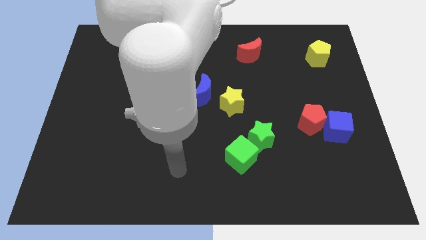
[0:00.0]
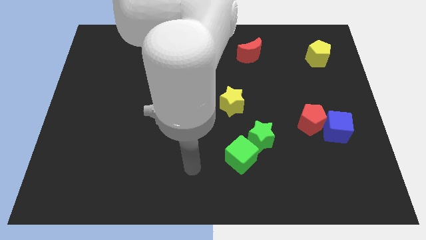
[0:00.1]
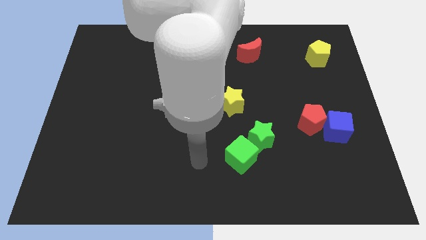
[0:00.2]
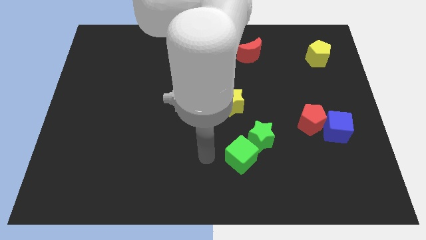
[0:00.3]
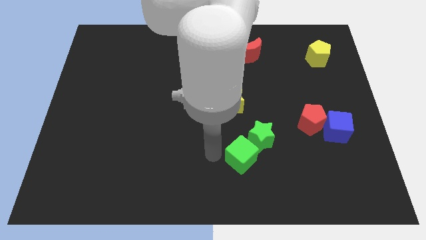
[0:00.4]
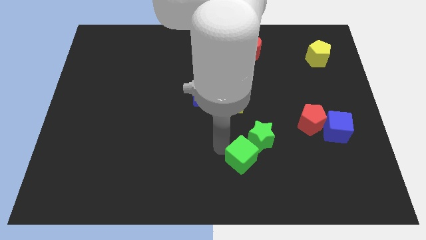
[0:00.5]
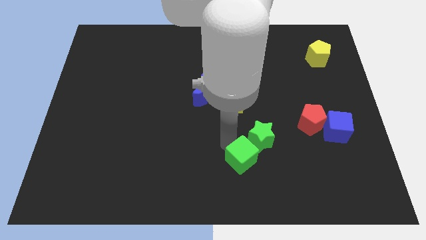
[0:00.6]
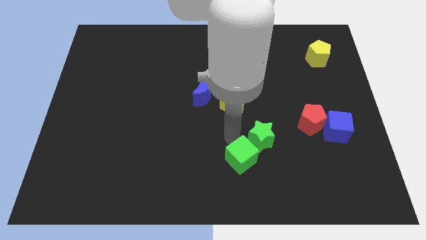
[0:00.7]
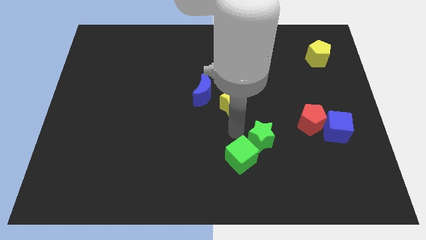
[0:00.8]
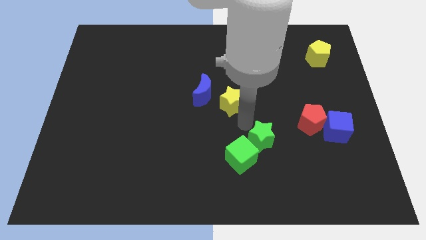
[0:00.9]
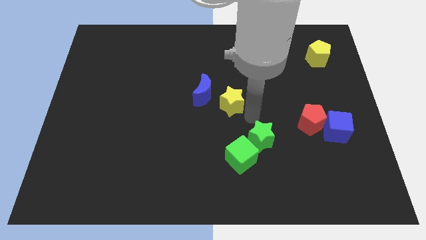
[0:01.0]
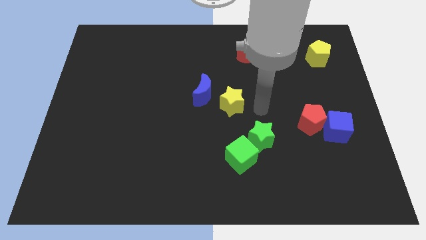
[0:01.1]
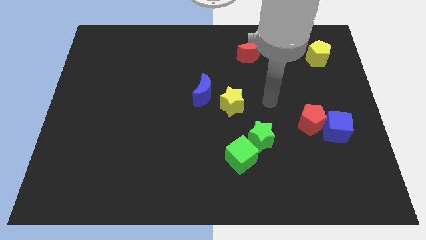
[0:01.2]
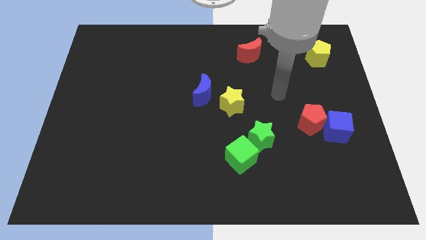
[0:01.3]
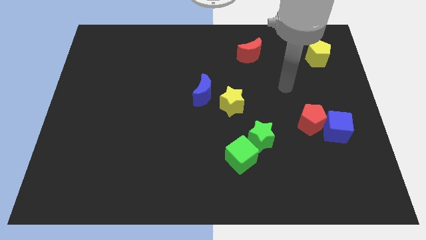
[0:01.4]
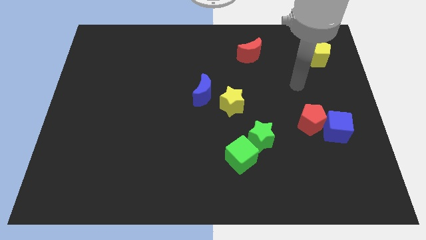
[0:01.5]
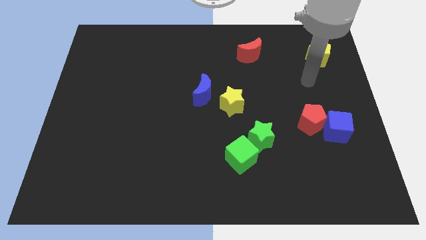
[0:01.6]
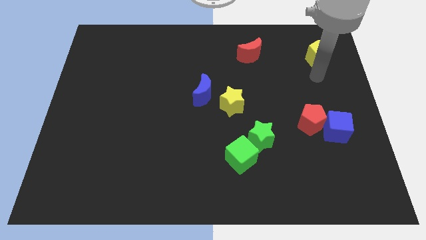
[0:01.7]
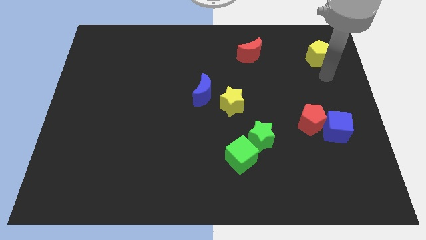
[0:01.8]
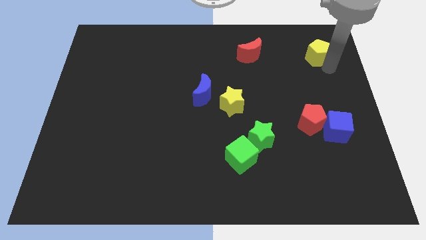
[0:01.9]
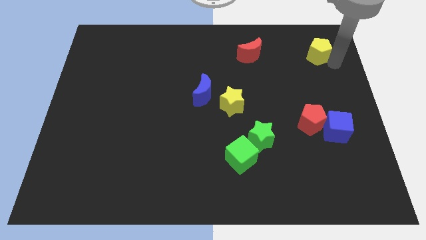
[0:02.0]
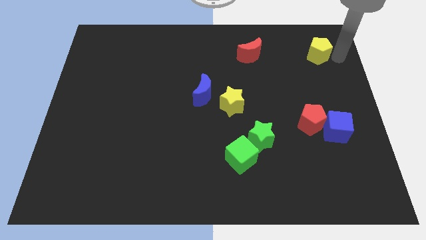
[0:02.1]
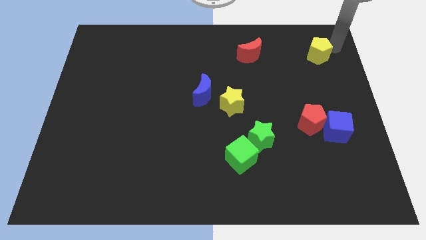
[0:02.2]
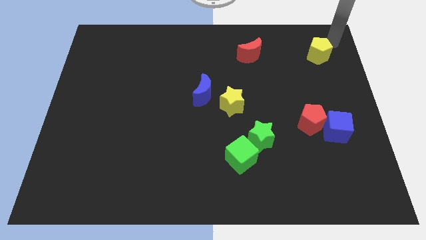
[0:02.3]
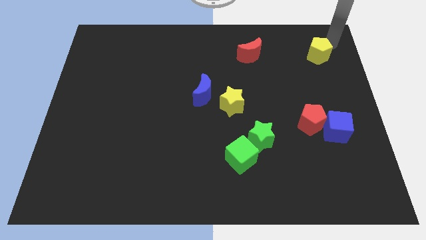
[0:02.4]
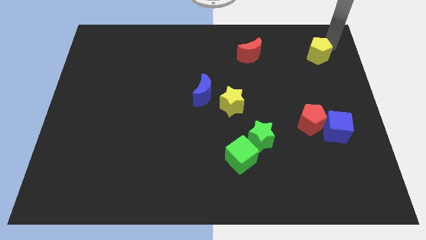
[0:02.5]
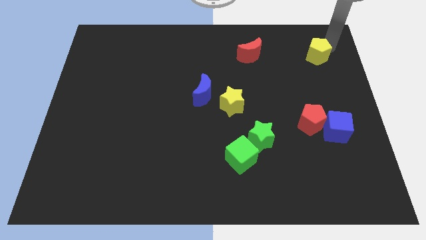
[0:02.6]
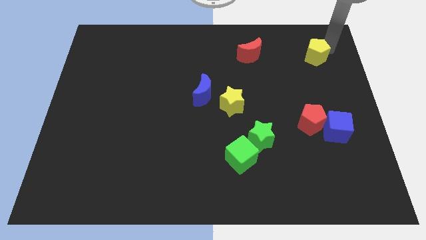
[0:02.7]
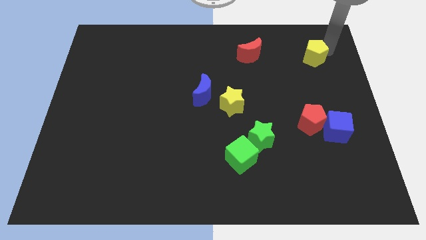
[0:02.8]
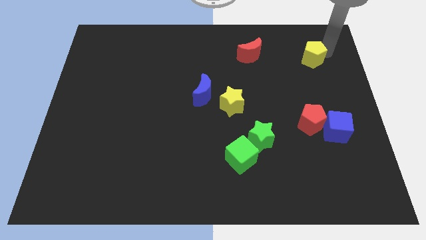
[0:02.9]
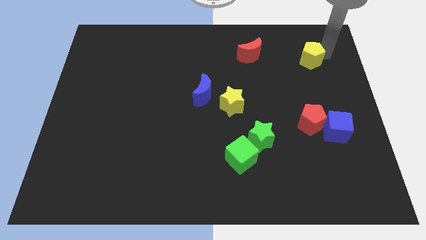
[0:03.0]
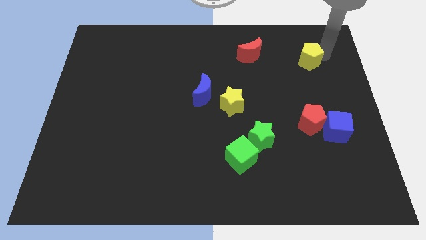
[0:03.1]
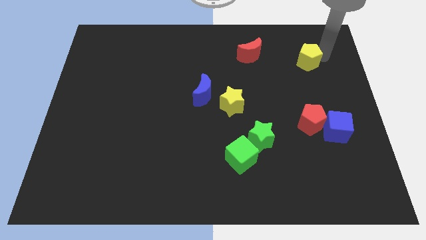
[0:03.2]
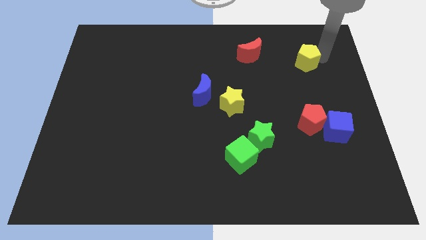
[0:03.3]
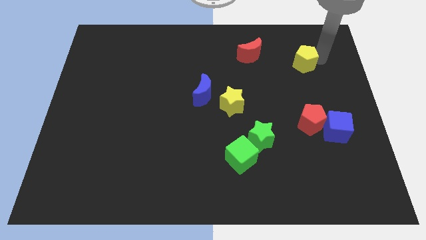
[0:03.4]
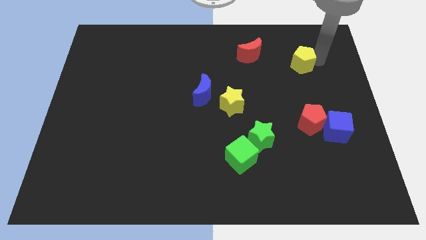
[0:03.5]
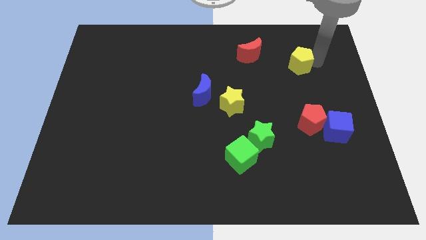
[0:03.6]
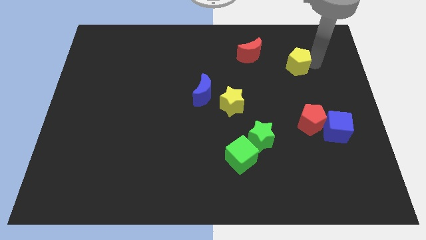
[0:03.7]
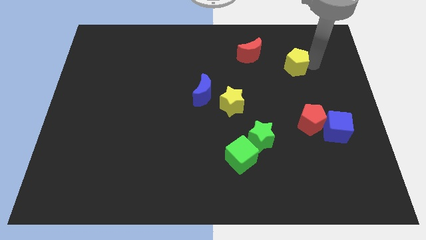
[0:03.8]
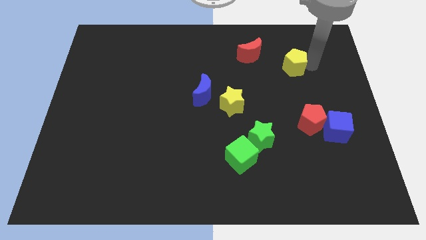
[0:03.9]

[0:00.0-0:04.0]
slightly move the yellow pentagon down and left

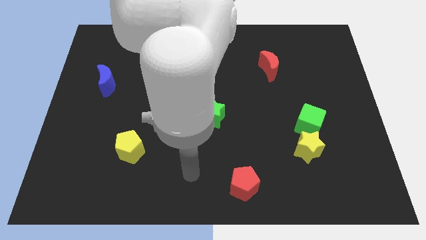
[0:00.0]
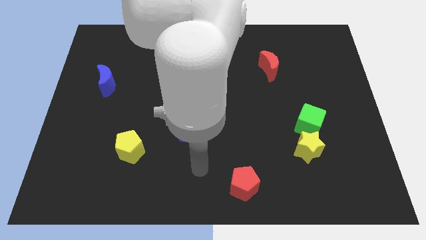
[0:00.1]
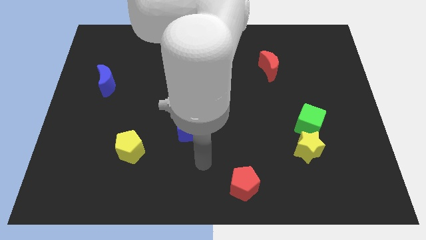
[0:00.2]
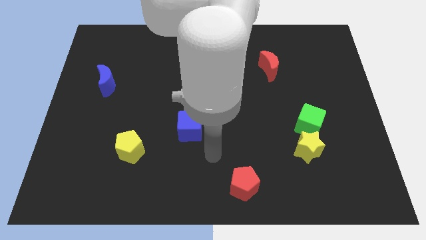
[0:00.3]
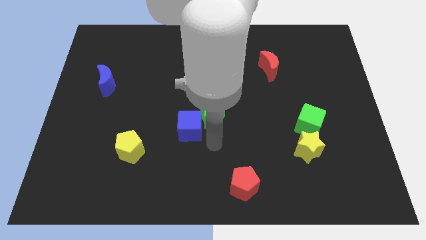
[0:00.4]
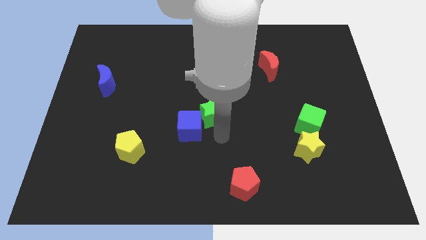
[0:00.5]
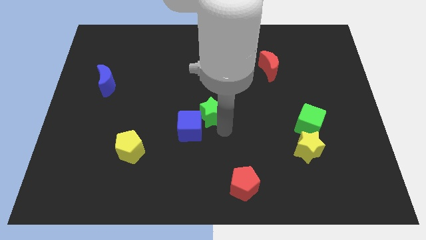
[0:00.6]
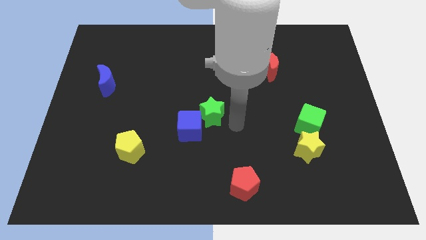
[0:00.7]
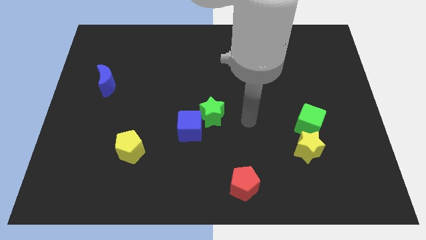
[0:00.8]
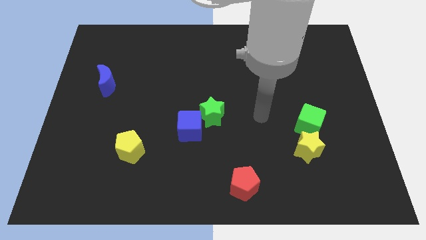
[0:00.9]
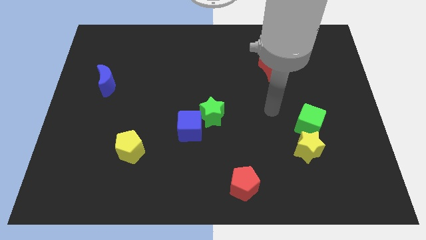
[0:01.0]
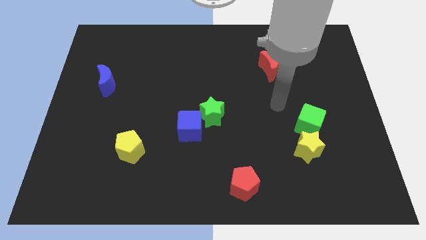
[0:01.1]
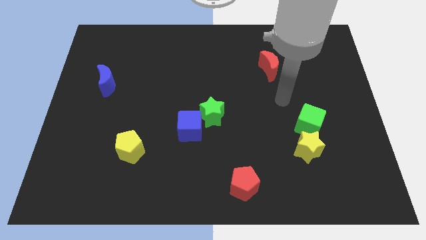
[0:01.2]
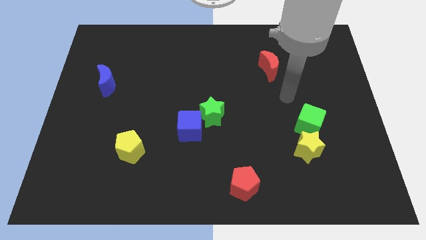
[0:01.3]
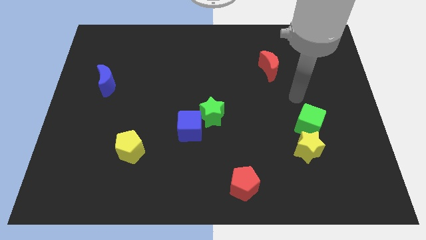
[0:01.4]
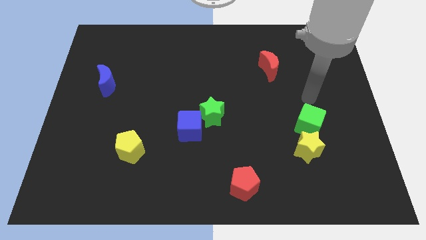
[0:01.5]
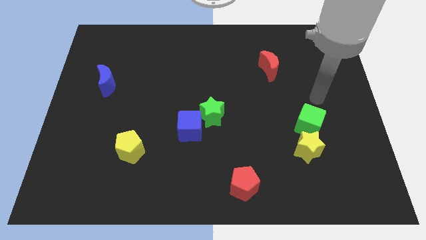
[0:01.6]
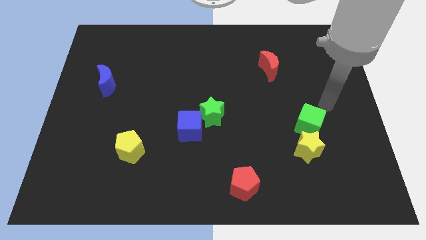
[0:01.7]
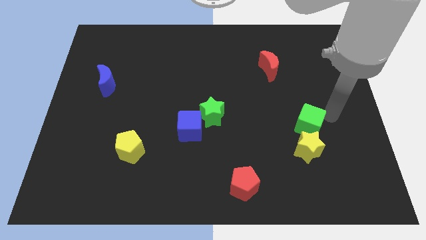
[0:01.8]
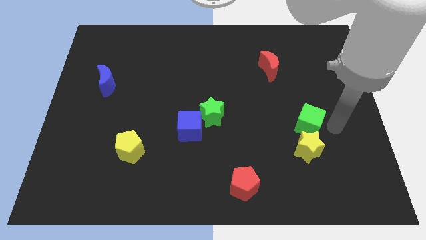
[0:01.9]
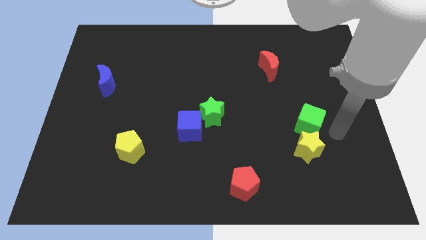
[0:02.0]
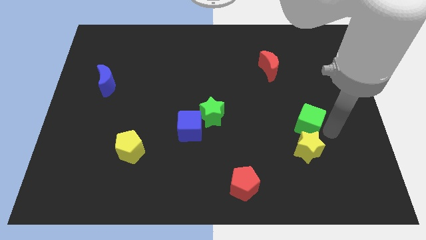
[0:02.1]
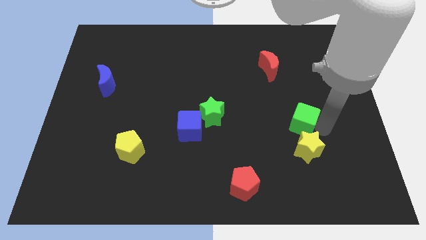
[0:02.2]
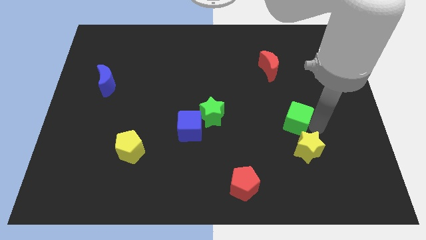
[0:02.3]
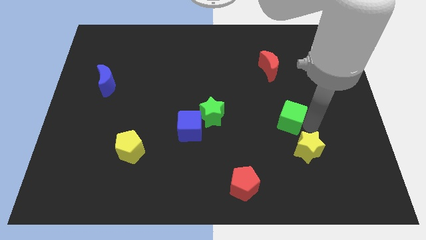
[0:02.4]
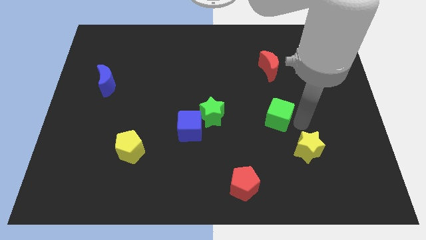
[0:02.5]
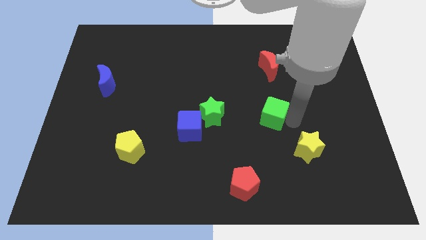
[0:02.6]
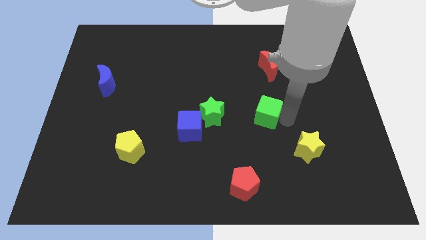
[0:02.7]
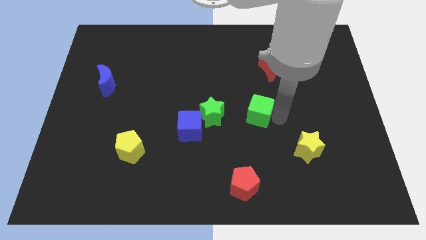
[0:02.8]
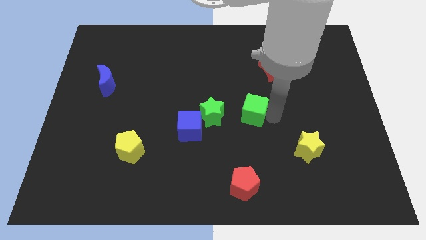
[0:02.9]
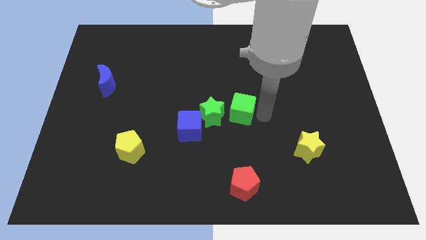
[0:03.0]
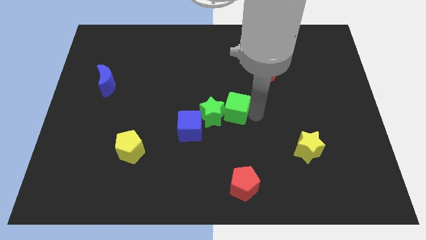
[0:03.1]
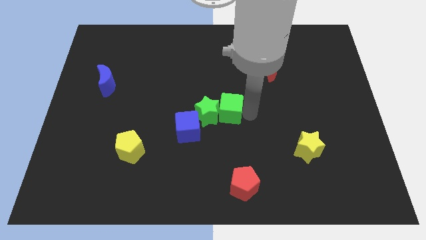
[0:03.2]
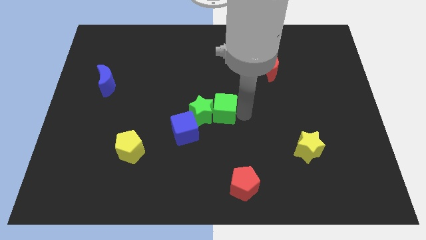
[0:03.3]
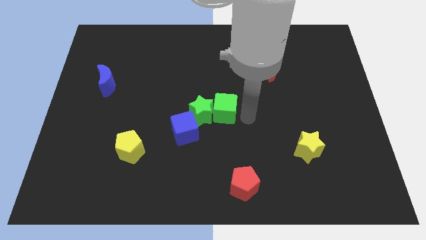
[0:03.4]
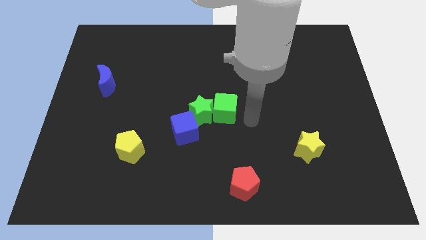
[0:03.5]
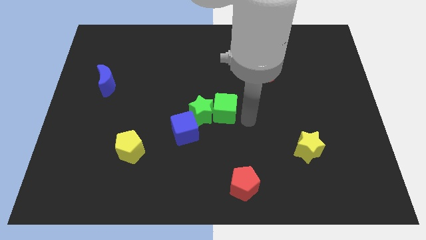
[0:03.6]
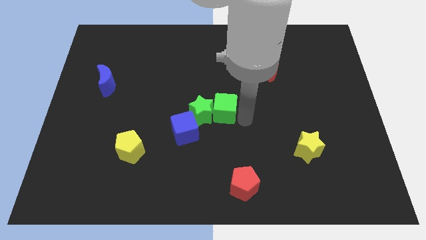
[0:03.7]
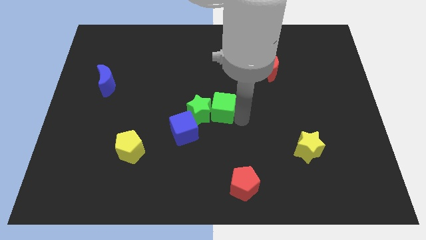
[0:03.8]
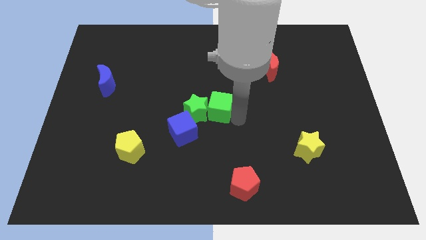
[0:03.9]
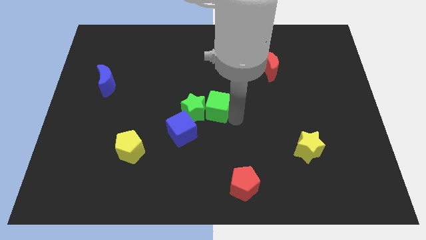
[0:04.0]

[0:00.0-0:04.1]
slide the green cube to the left
